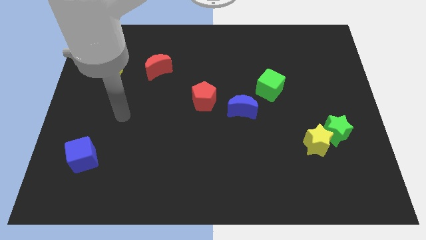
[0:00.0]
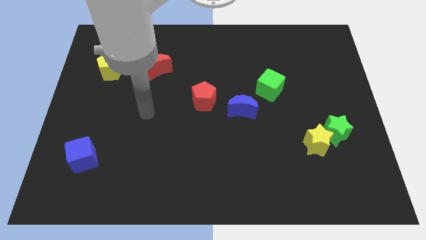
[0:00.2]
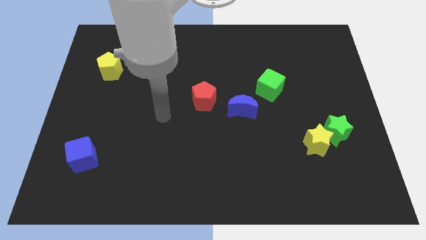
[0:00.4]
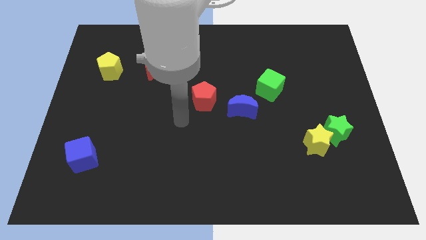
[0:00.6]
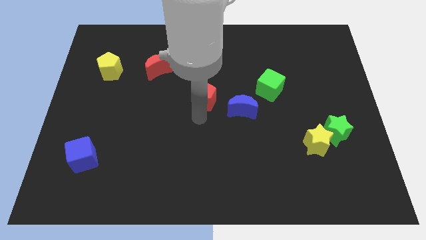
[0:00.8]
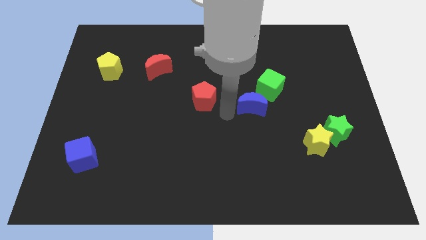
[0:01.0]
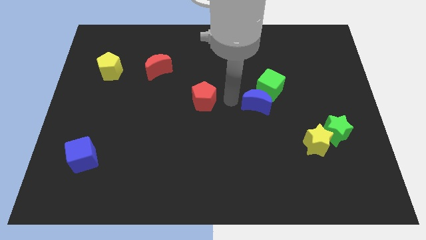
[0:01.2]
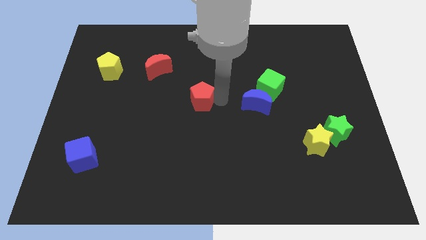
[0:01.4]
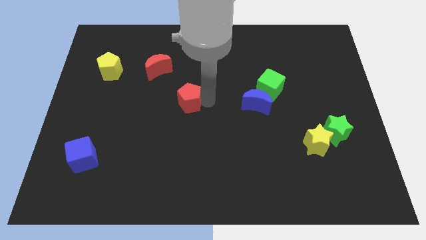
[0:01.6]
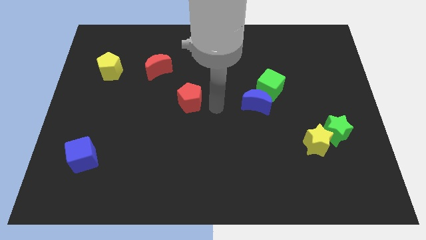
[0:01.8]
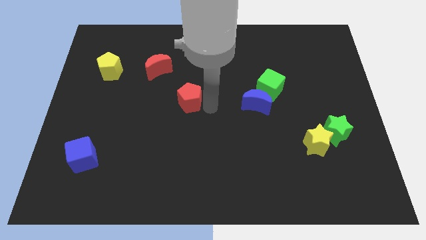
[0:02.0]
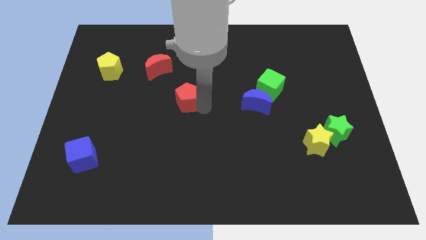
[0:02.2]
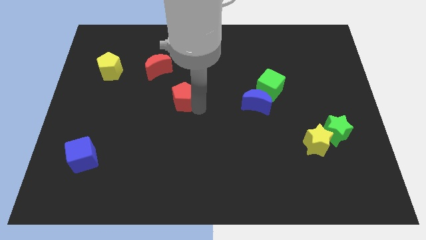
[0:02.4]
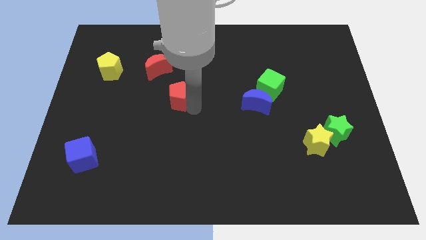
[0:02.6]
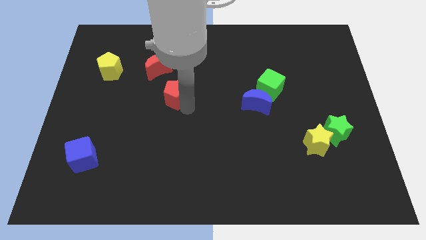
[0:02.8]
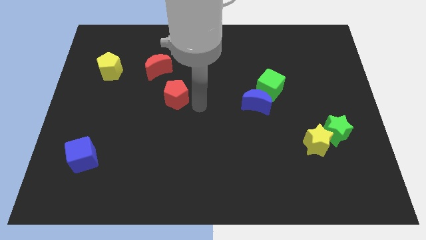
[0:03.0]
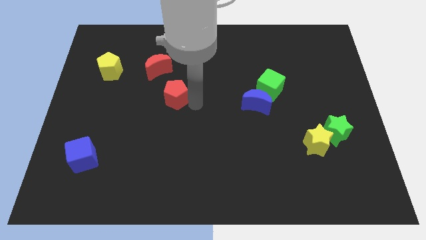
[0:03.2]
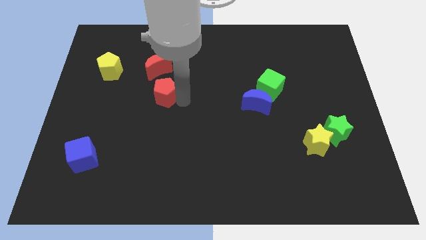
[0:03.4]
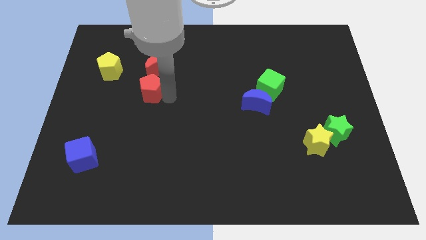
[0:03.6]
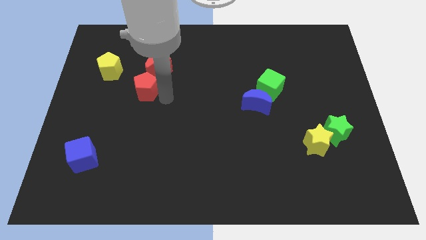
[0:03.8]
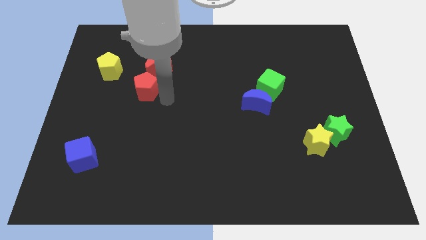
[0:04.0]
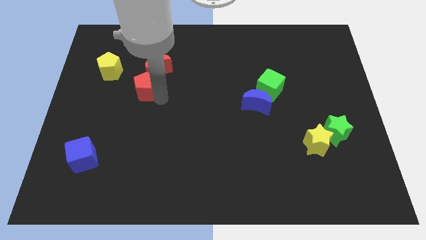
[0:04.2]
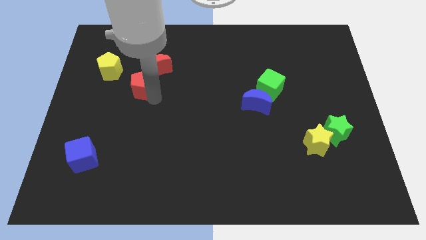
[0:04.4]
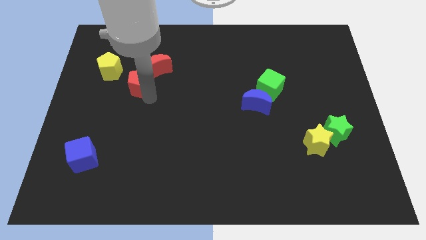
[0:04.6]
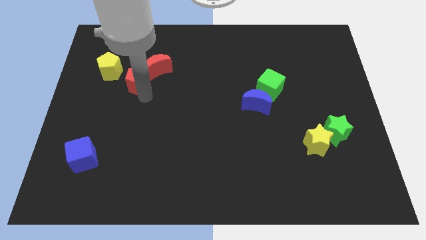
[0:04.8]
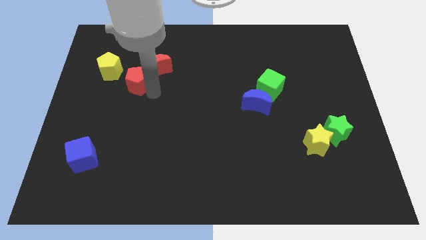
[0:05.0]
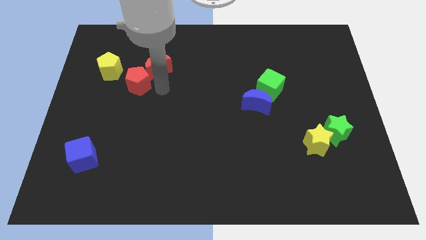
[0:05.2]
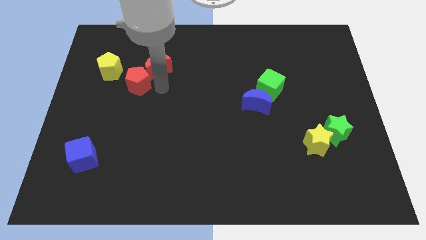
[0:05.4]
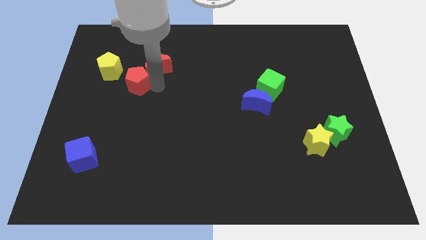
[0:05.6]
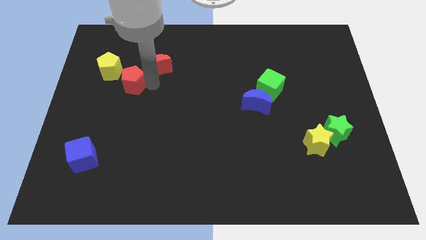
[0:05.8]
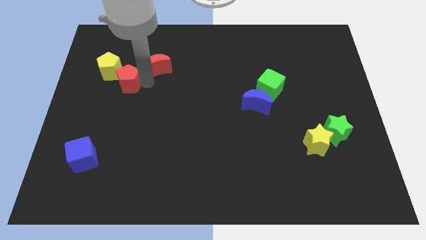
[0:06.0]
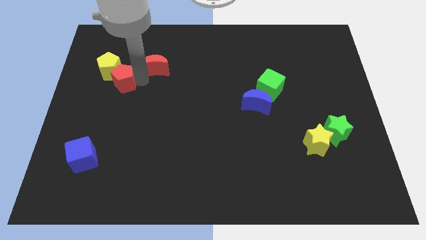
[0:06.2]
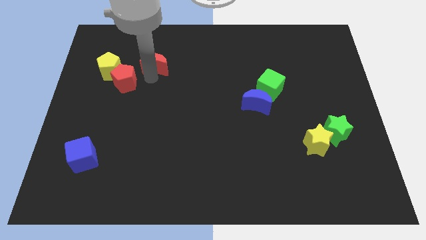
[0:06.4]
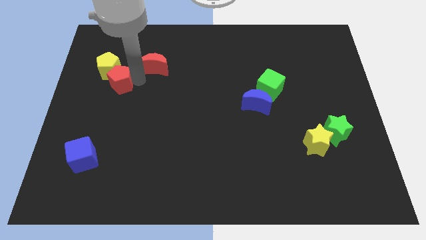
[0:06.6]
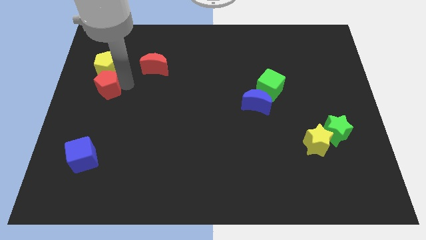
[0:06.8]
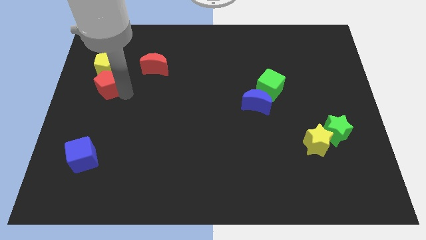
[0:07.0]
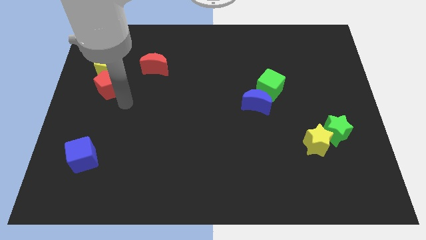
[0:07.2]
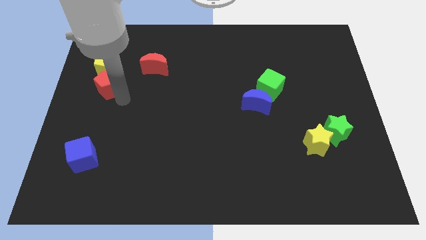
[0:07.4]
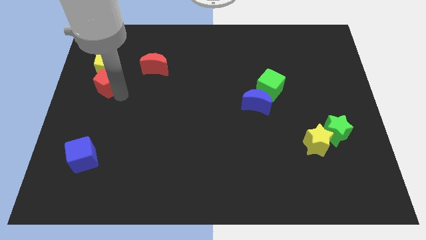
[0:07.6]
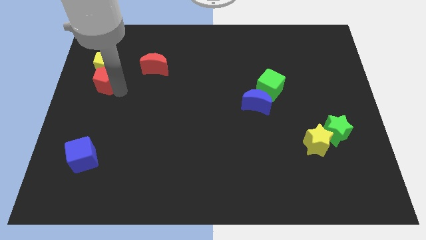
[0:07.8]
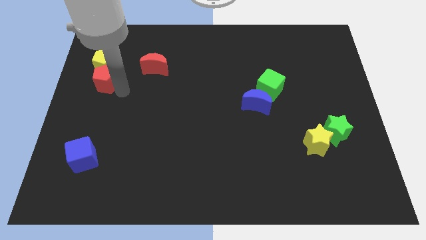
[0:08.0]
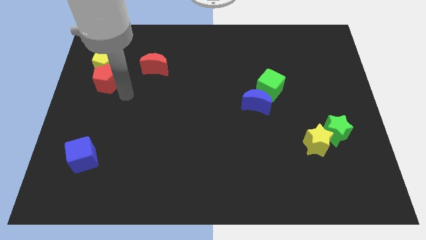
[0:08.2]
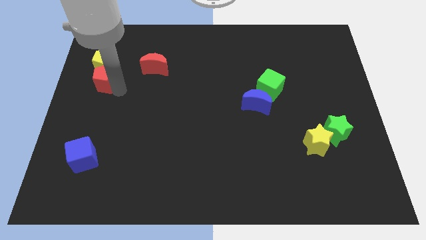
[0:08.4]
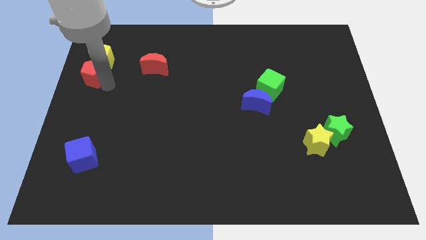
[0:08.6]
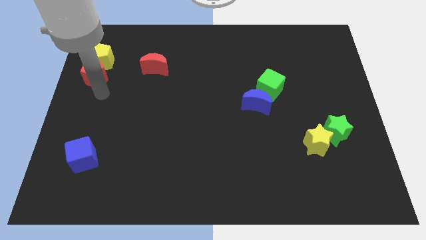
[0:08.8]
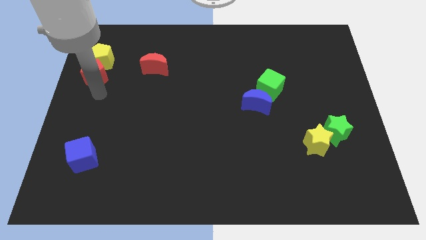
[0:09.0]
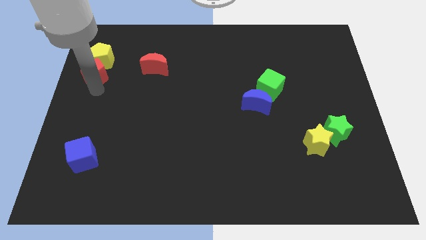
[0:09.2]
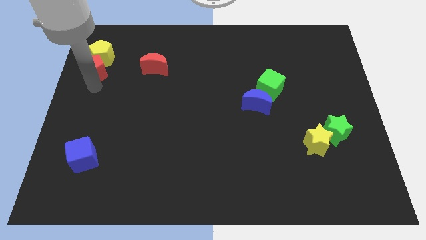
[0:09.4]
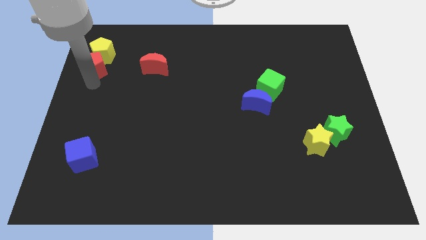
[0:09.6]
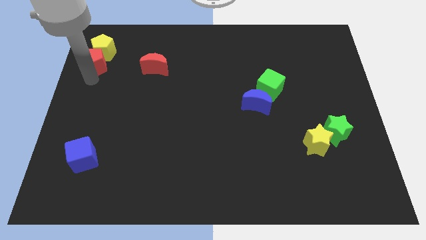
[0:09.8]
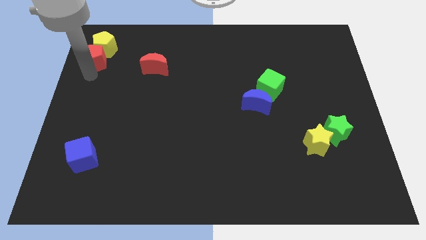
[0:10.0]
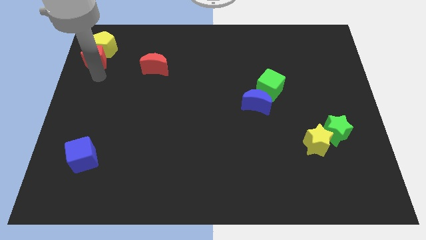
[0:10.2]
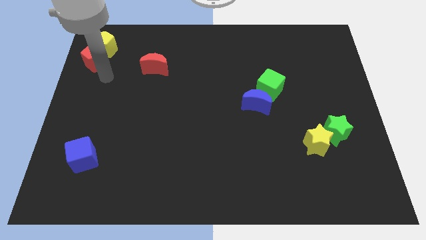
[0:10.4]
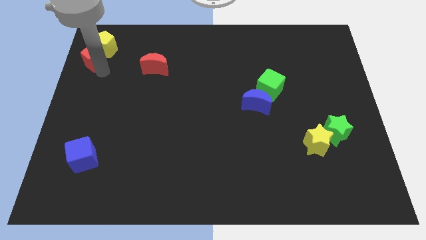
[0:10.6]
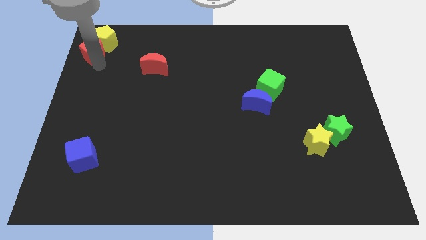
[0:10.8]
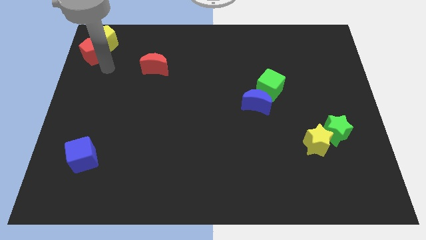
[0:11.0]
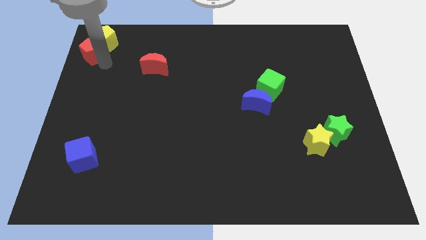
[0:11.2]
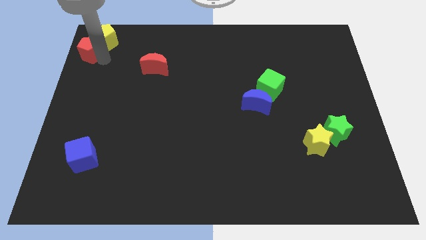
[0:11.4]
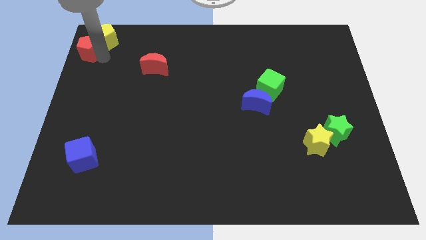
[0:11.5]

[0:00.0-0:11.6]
put the red pentagon to the upper left corner
